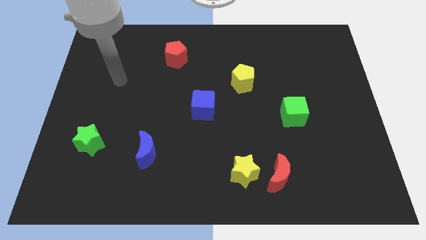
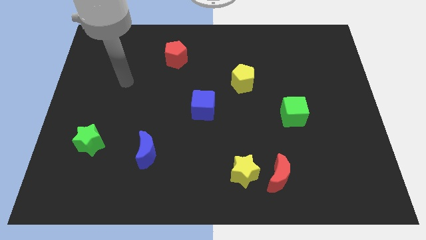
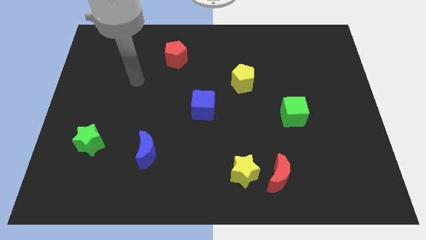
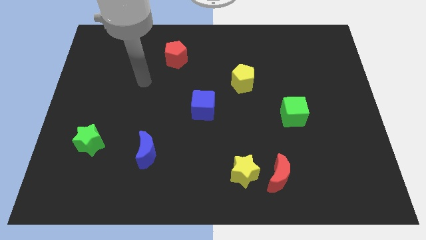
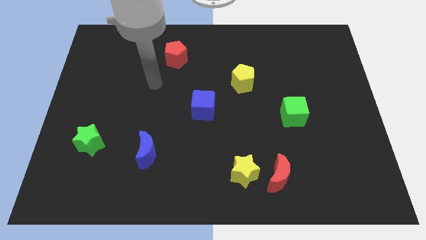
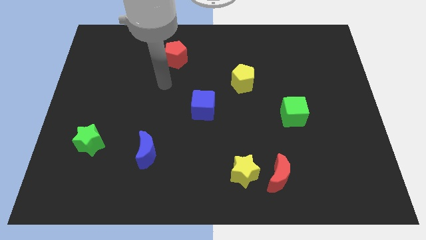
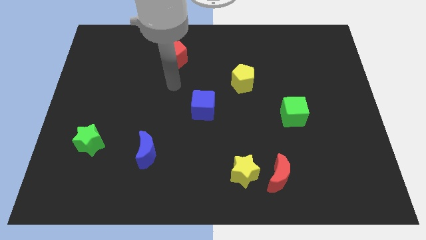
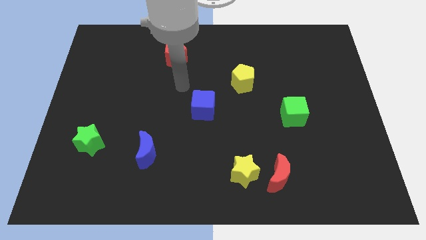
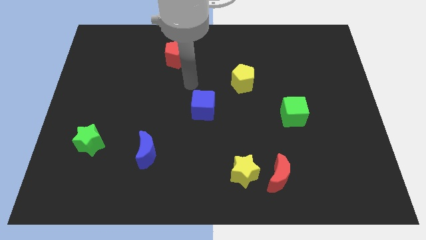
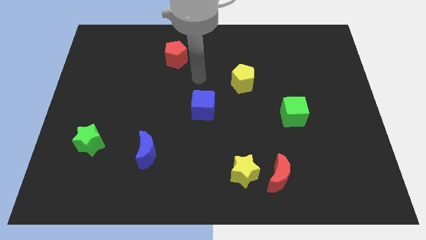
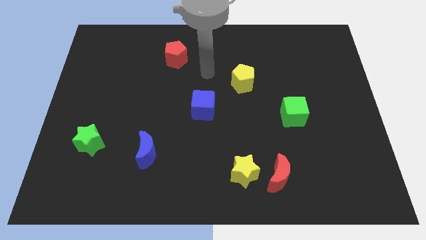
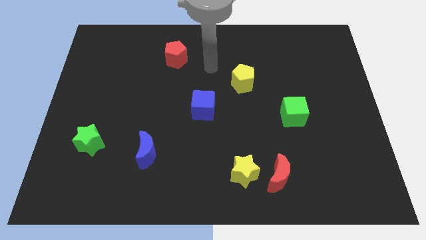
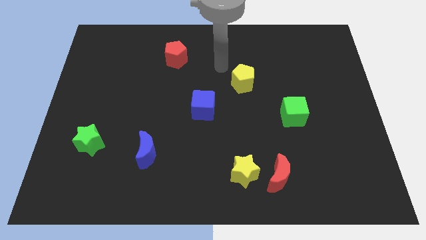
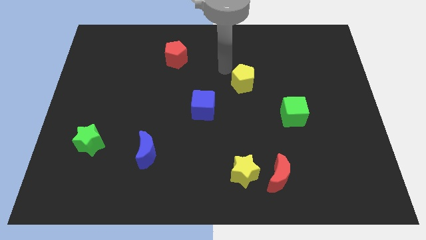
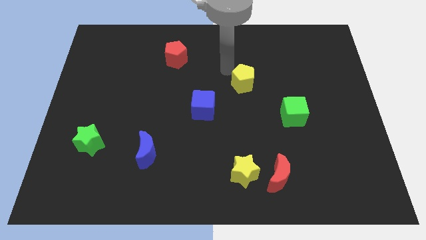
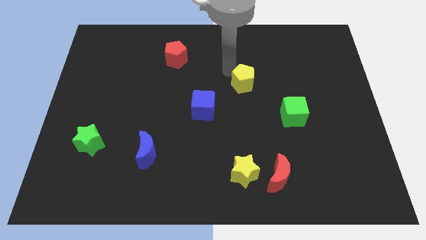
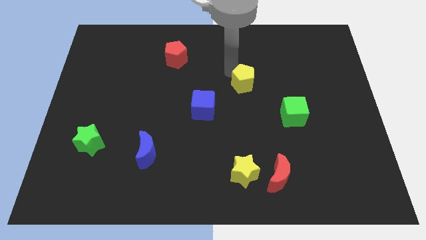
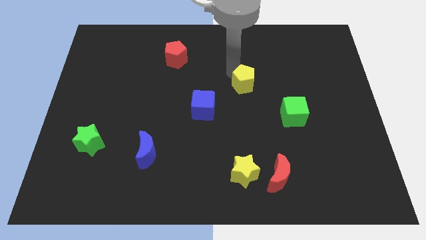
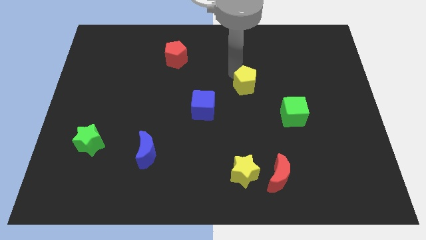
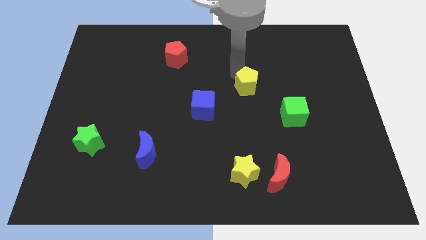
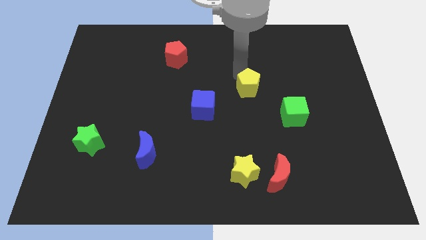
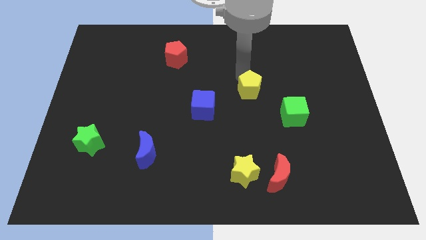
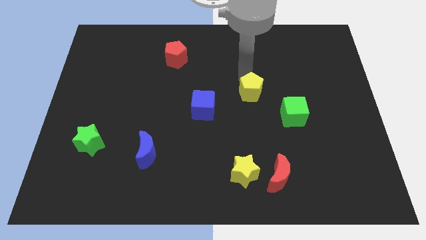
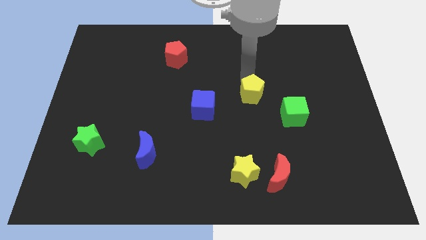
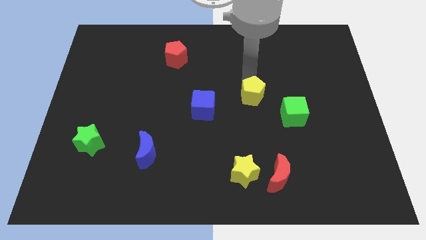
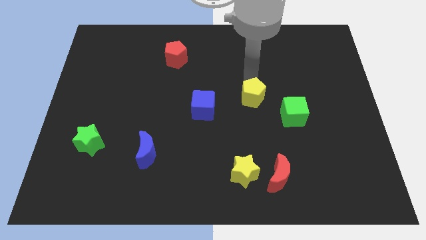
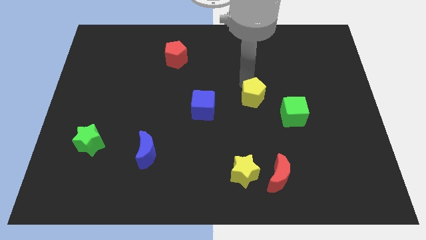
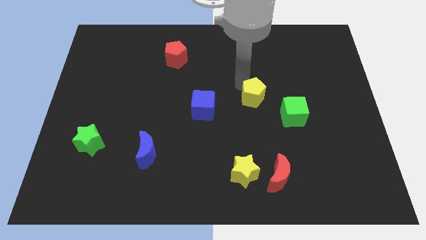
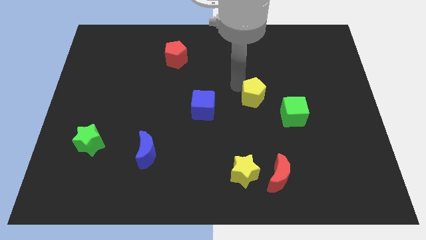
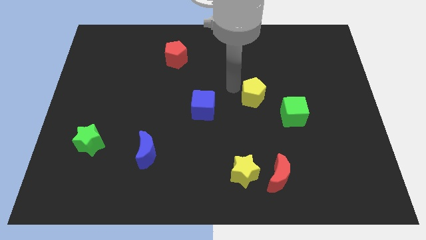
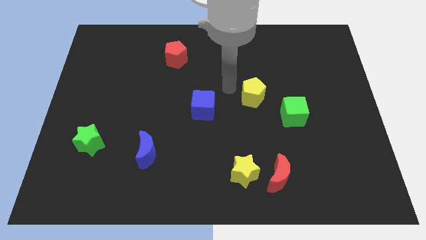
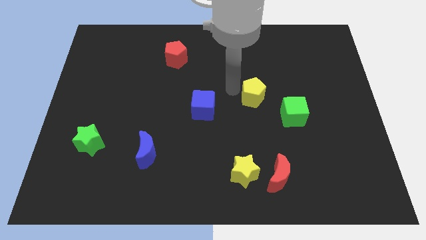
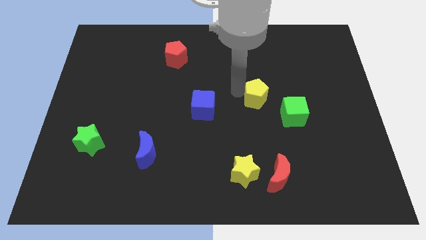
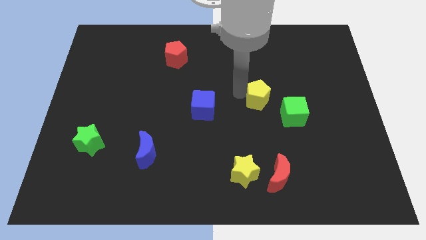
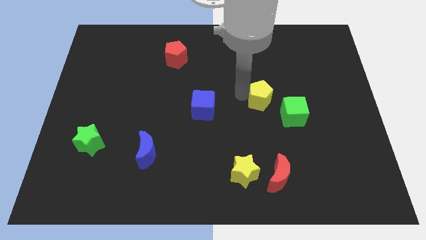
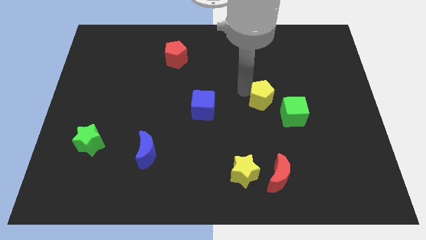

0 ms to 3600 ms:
push the yellow pentagon diagonally down and right a little bit

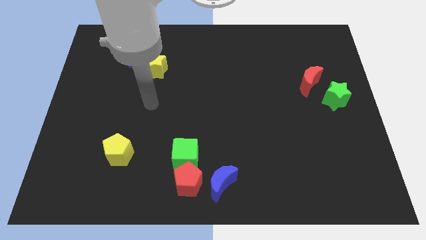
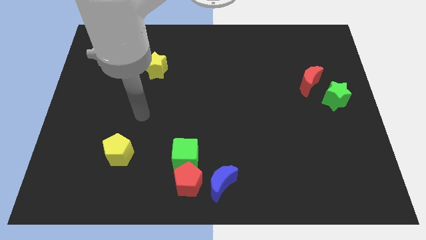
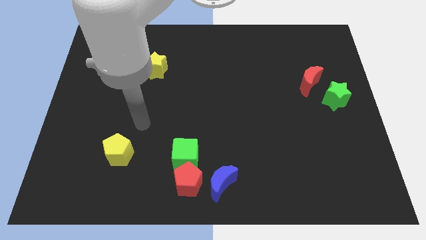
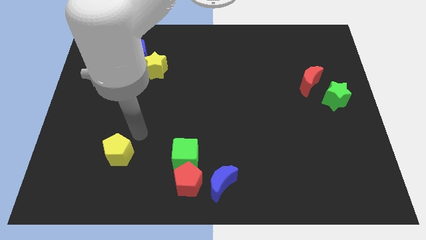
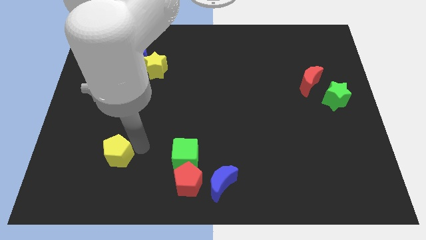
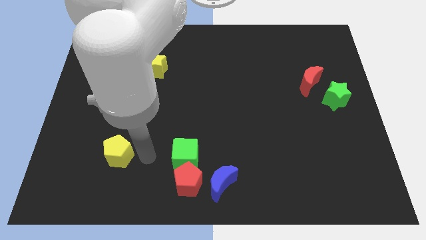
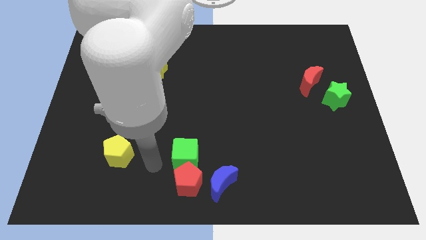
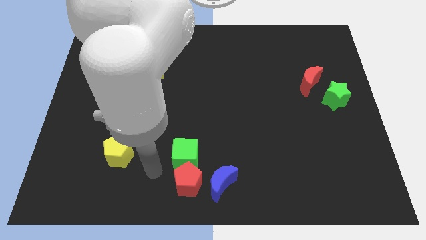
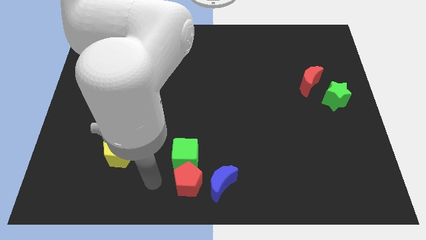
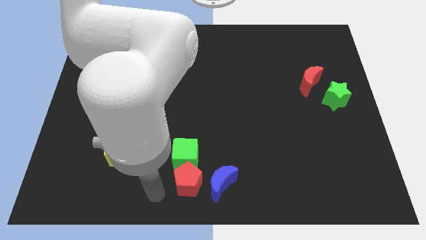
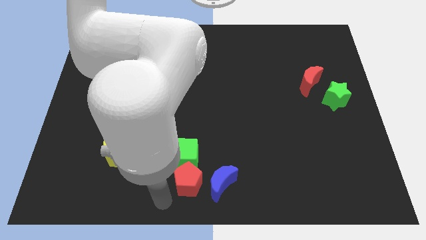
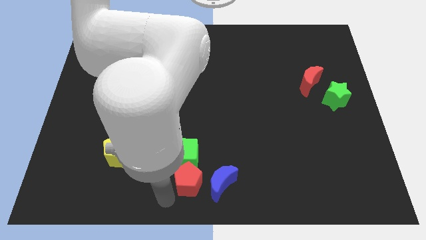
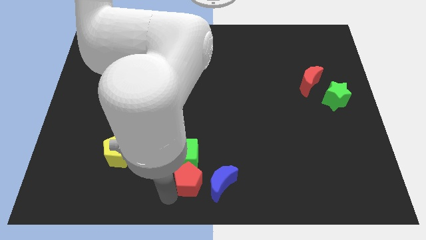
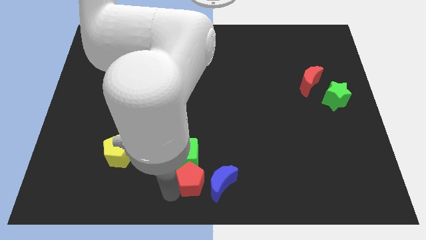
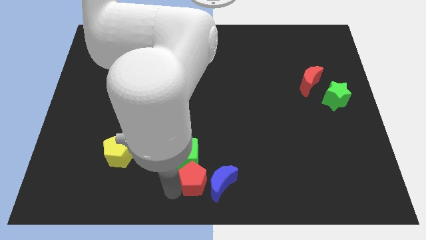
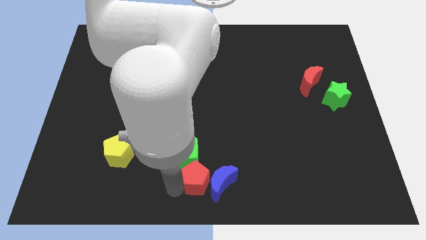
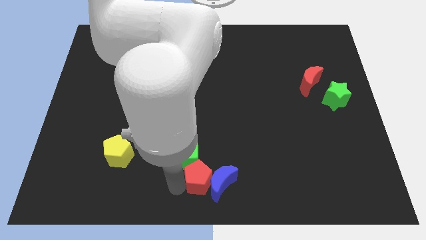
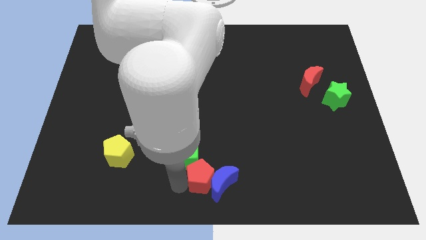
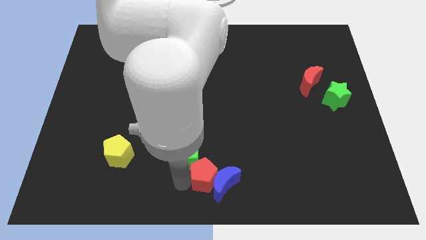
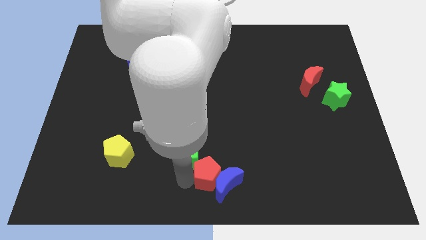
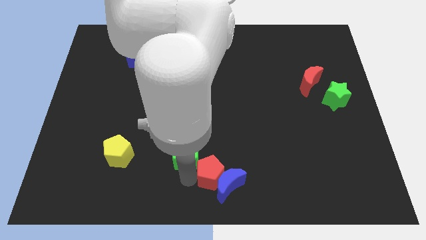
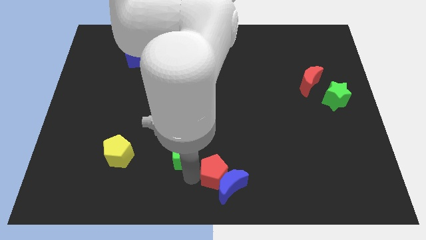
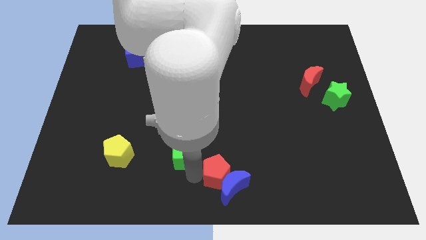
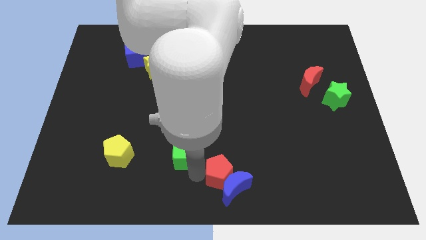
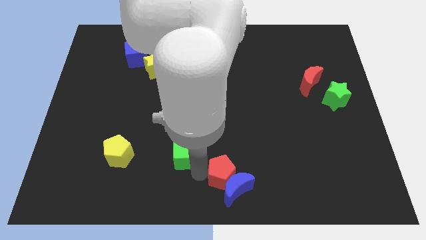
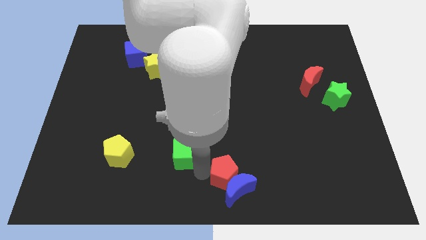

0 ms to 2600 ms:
slightly push the red pentagon right

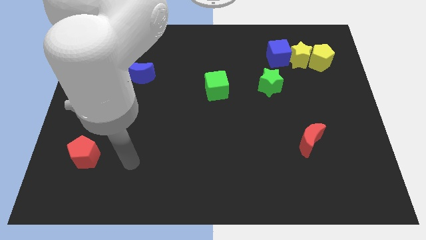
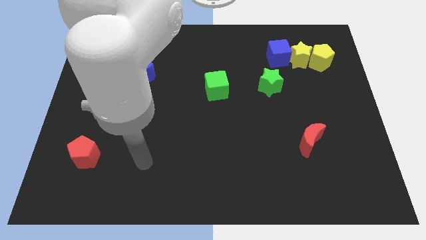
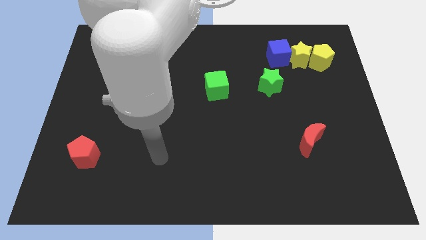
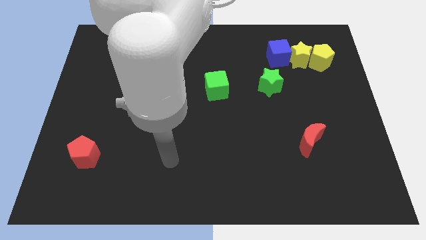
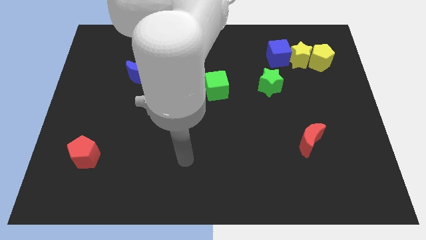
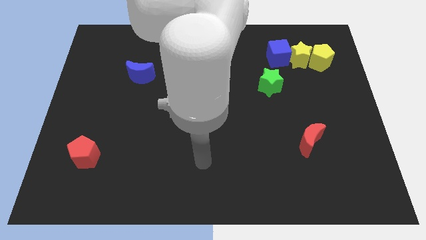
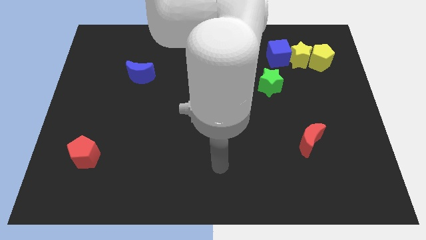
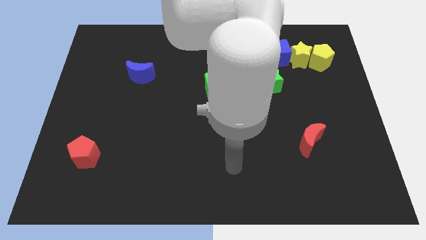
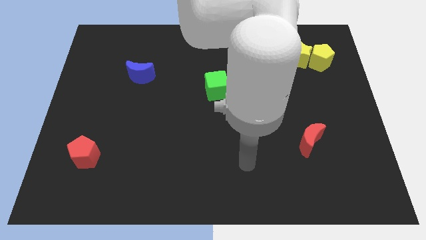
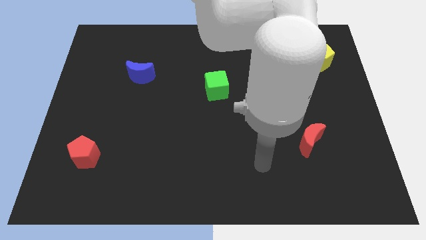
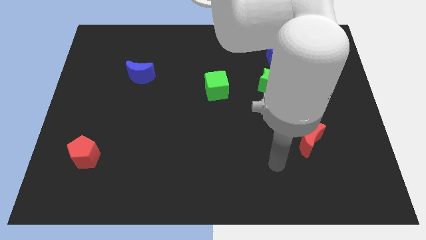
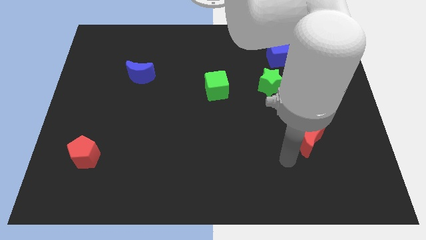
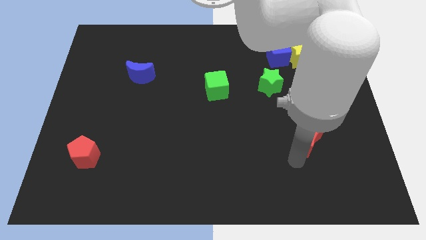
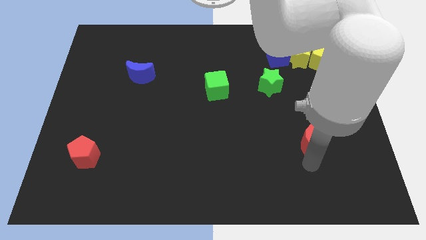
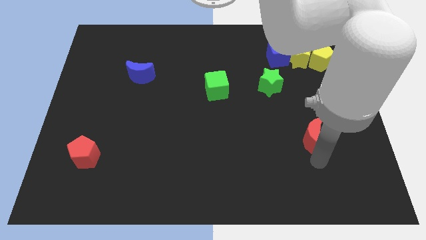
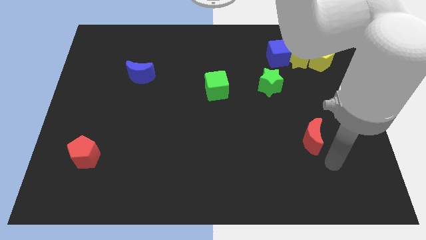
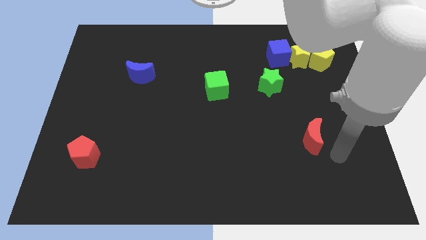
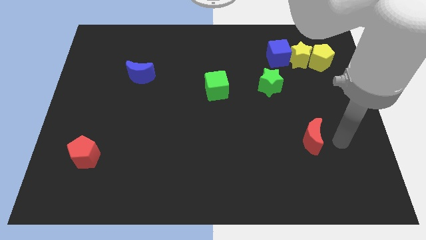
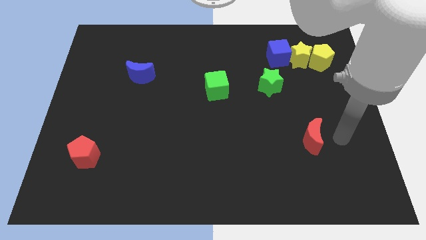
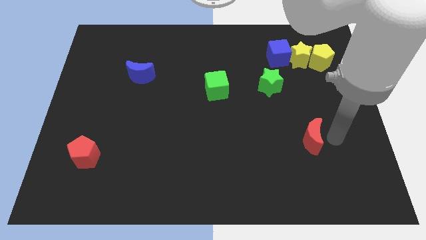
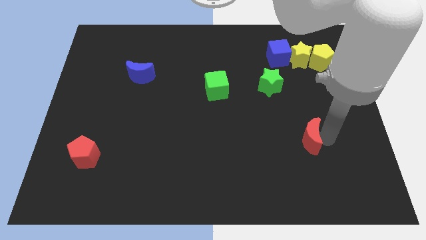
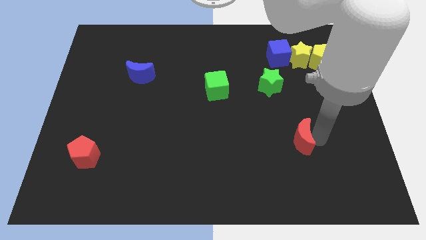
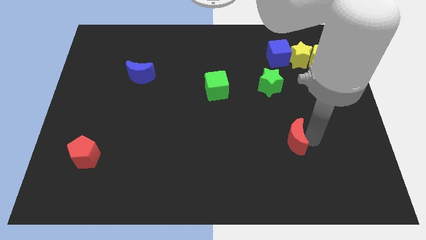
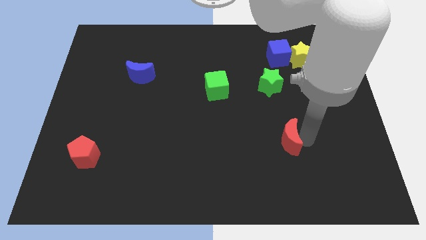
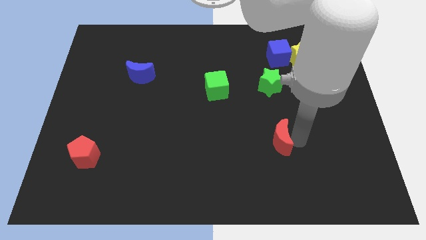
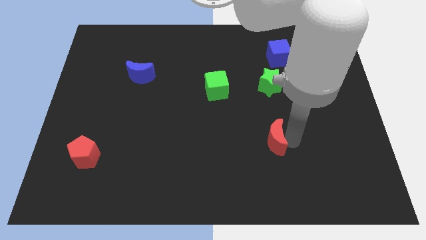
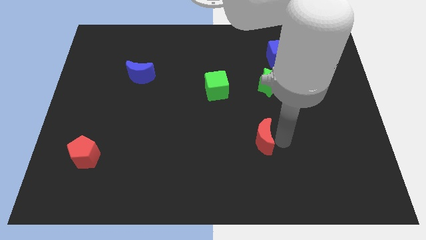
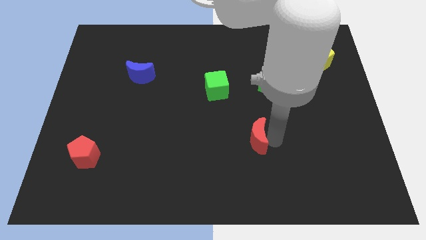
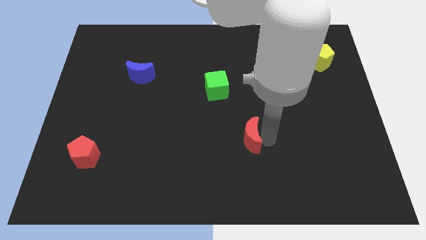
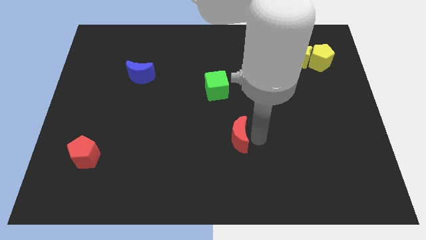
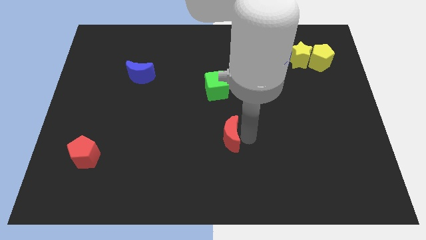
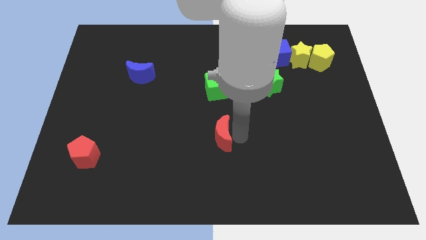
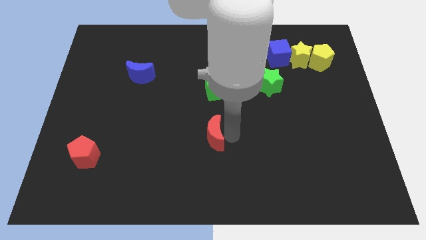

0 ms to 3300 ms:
move the red moon left
